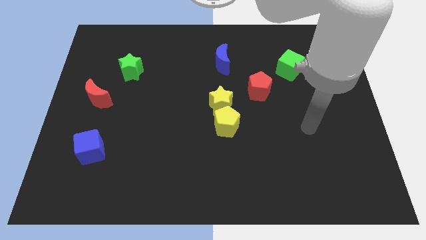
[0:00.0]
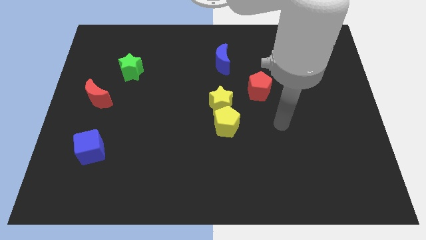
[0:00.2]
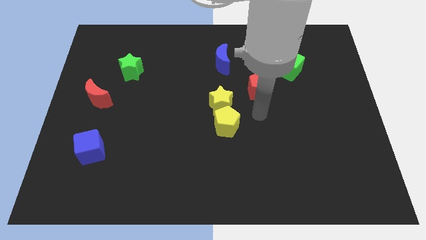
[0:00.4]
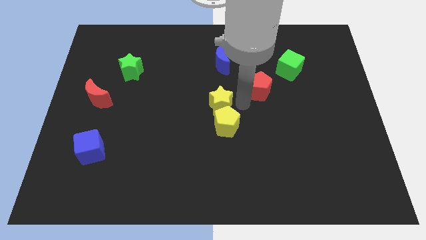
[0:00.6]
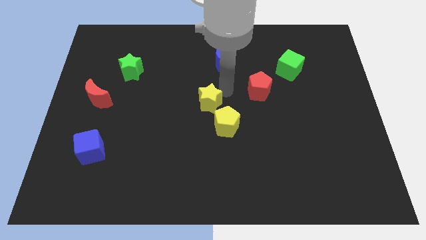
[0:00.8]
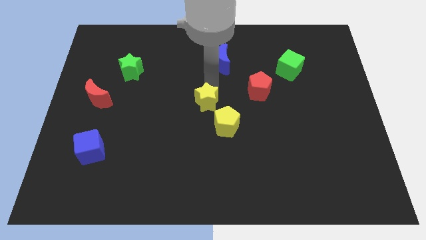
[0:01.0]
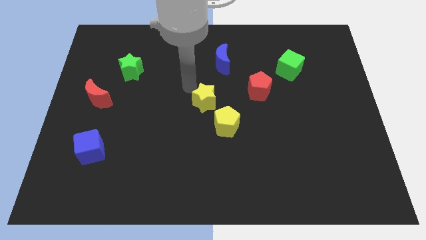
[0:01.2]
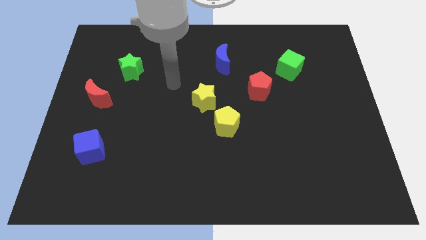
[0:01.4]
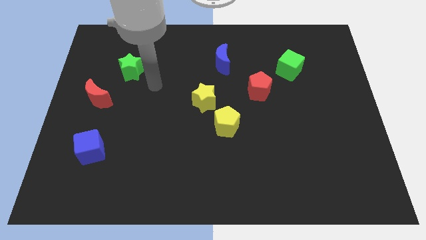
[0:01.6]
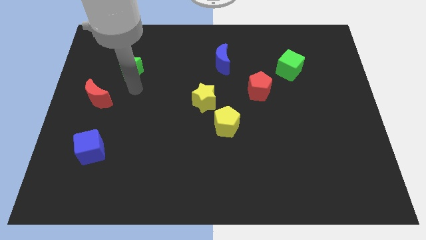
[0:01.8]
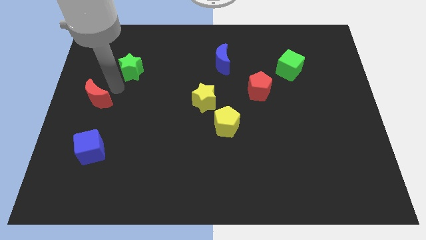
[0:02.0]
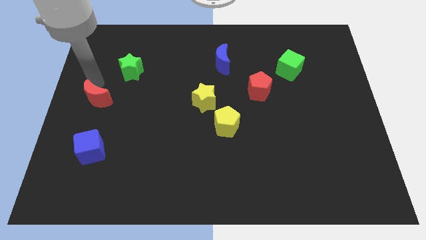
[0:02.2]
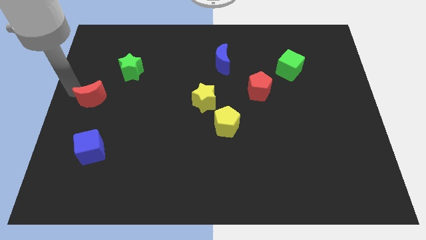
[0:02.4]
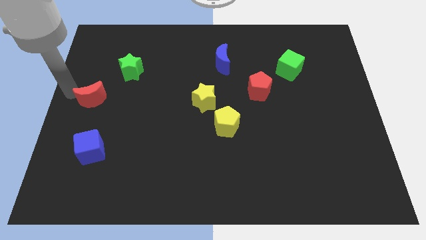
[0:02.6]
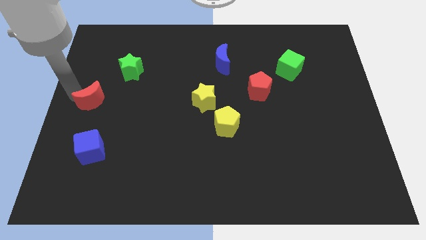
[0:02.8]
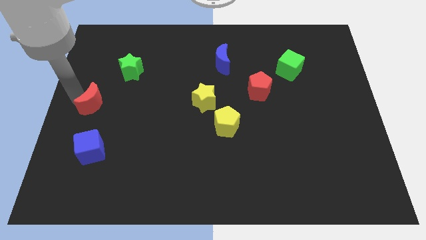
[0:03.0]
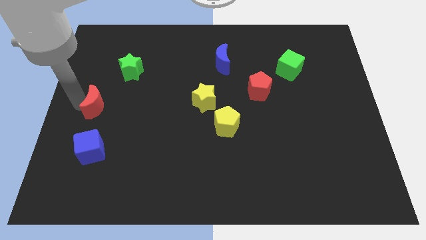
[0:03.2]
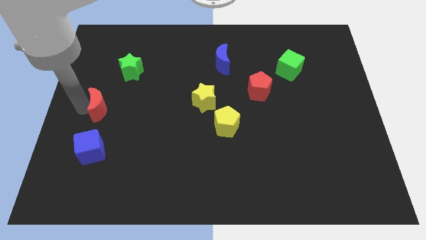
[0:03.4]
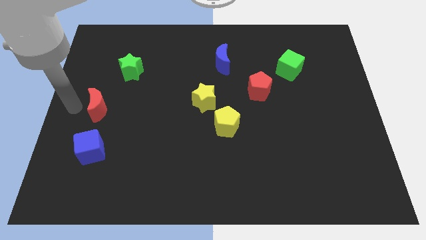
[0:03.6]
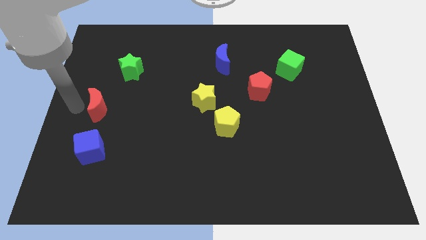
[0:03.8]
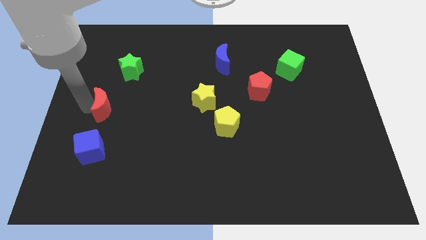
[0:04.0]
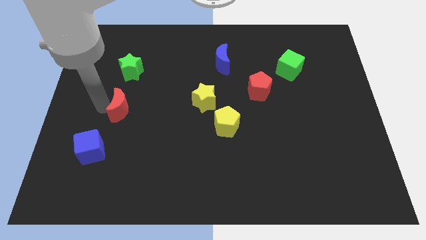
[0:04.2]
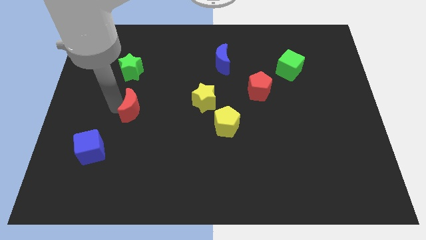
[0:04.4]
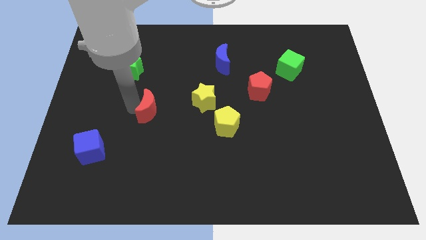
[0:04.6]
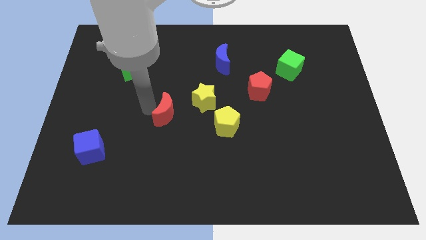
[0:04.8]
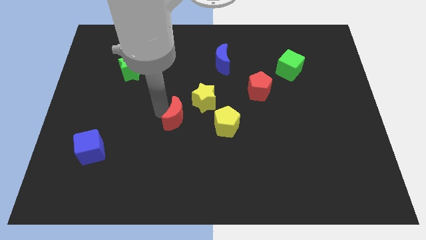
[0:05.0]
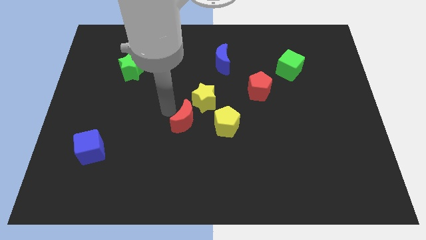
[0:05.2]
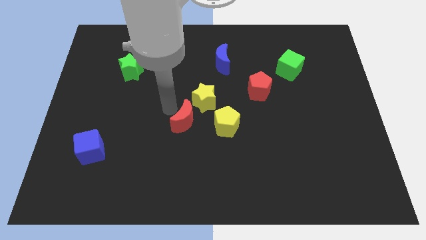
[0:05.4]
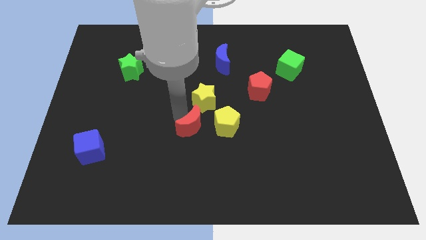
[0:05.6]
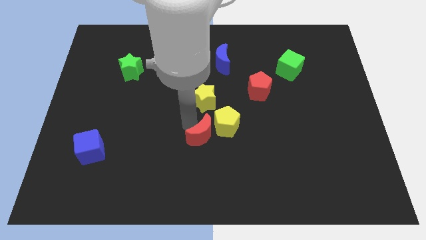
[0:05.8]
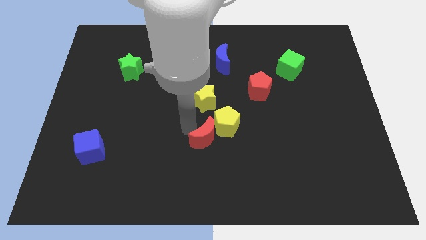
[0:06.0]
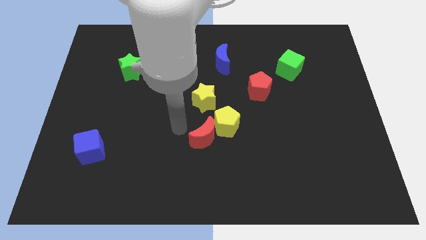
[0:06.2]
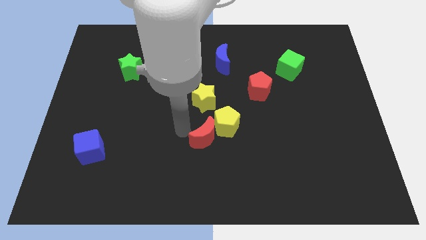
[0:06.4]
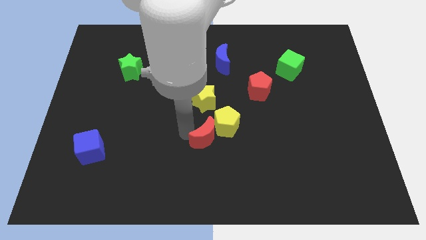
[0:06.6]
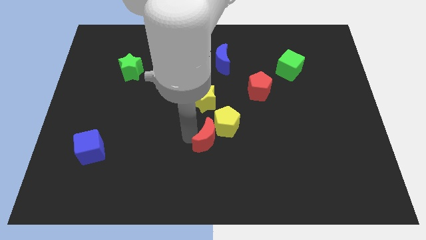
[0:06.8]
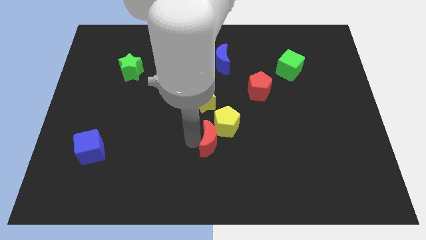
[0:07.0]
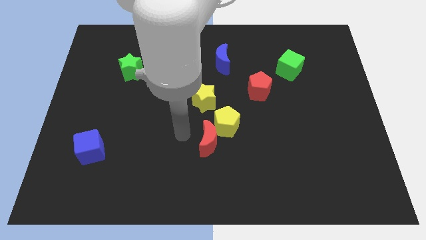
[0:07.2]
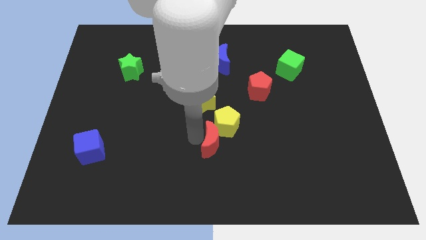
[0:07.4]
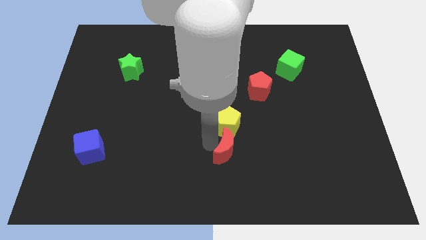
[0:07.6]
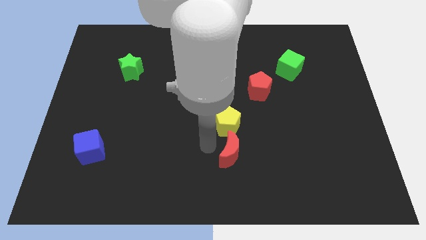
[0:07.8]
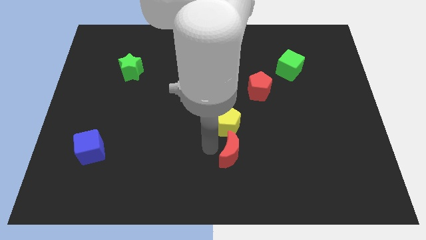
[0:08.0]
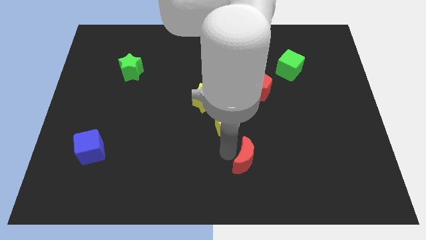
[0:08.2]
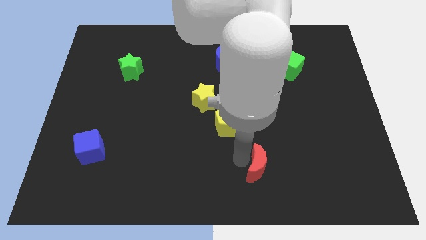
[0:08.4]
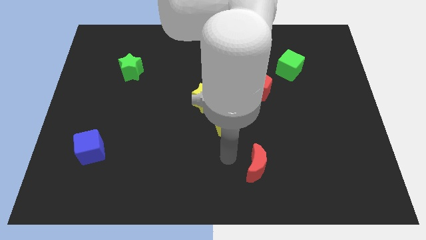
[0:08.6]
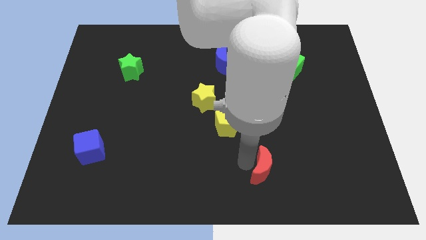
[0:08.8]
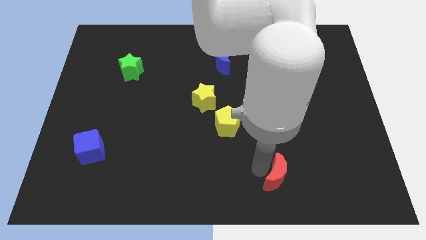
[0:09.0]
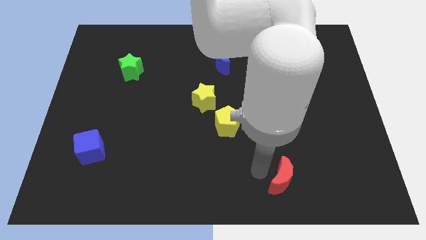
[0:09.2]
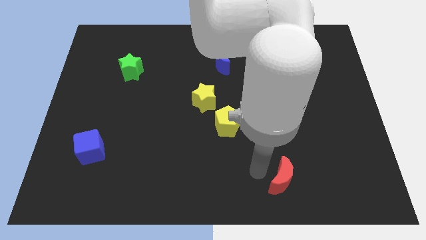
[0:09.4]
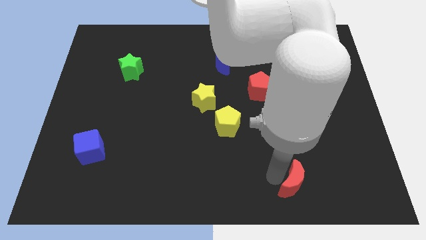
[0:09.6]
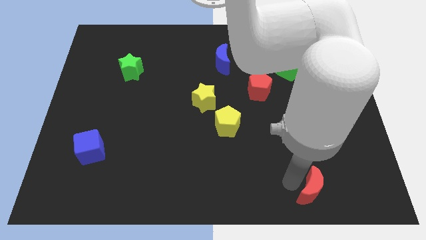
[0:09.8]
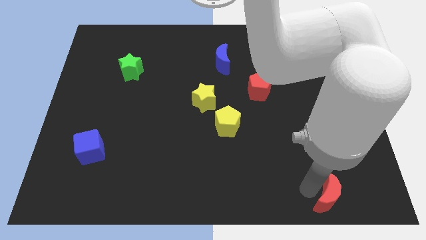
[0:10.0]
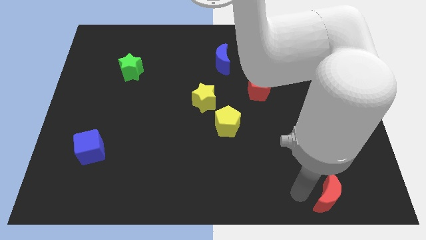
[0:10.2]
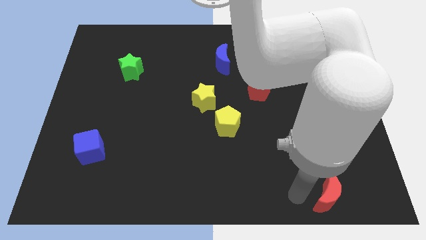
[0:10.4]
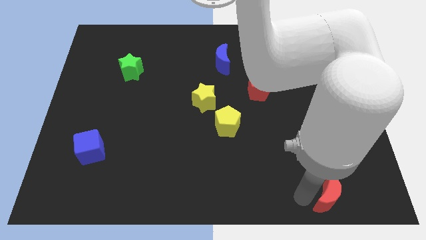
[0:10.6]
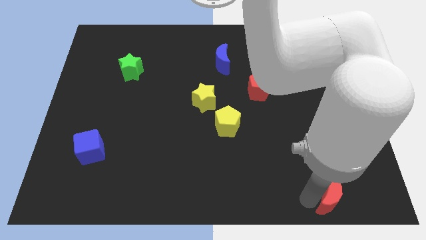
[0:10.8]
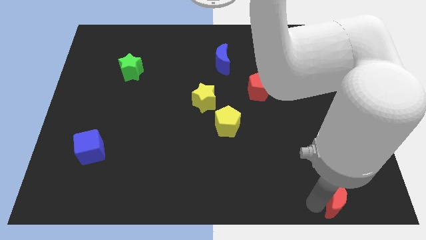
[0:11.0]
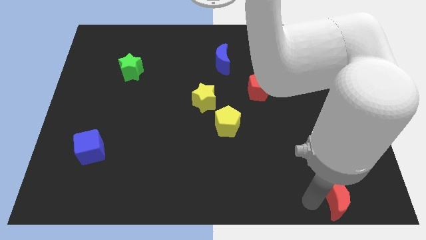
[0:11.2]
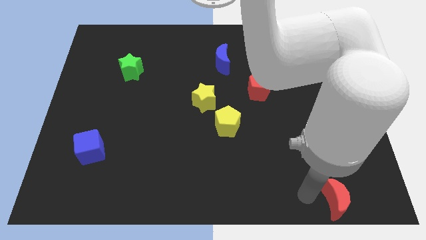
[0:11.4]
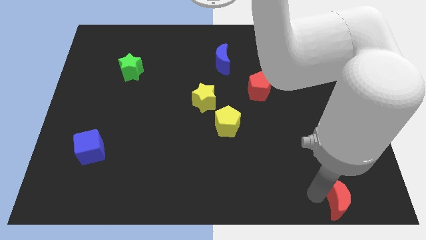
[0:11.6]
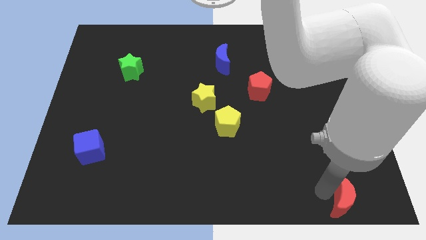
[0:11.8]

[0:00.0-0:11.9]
slide the red moon to the bottom right corner
